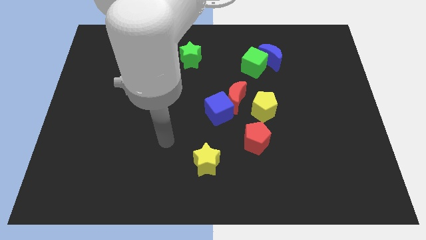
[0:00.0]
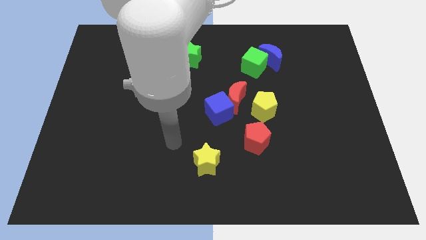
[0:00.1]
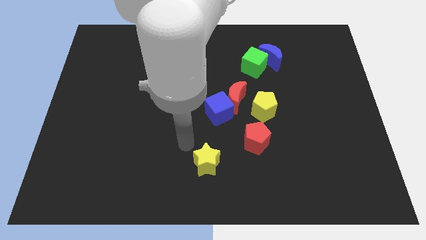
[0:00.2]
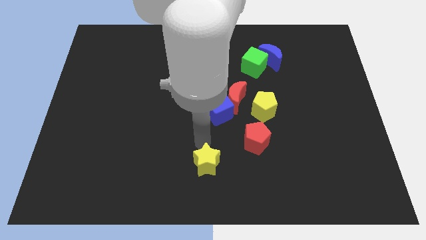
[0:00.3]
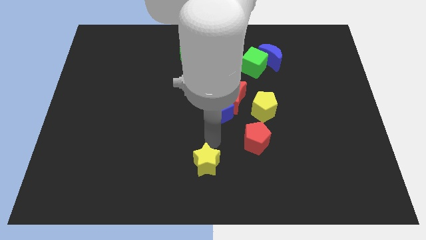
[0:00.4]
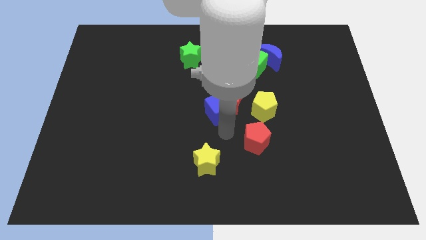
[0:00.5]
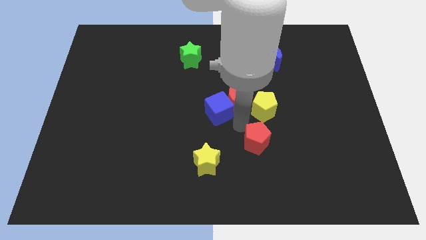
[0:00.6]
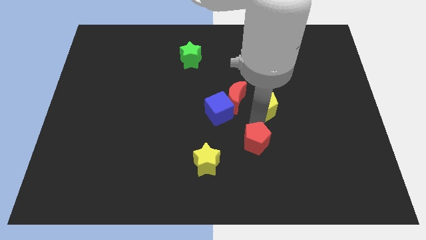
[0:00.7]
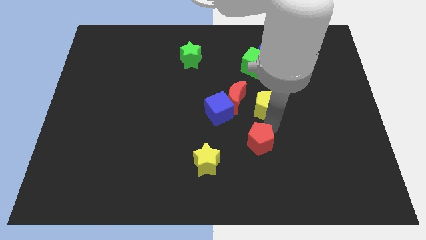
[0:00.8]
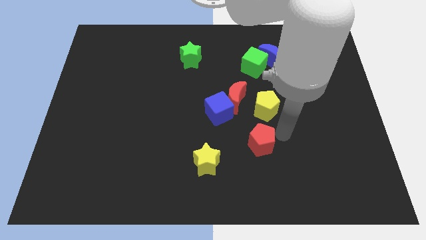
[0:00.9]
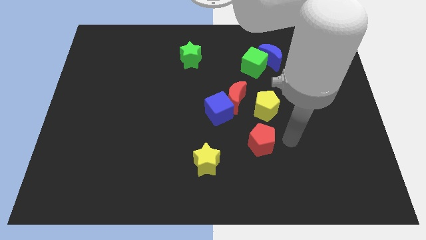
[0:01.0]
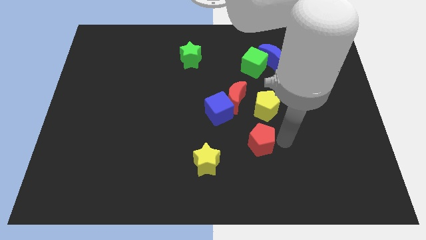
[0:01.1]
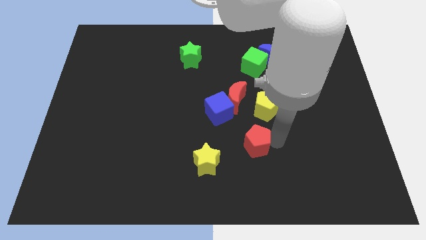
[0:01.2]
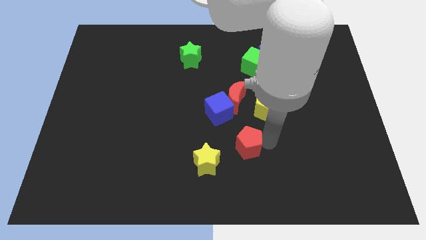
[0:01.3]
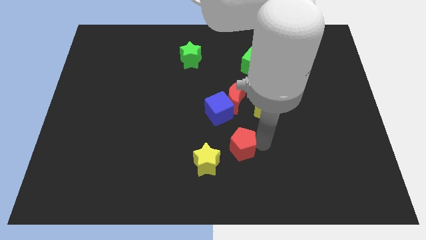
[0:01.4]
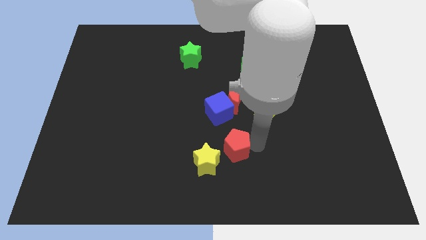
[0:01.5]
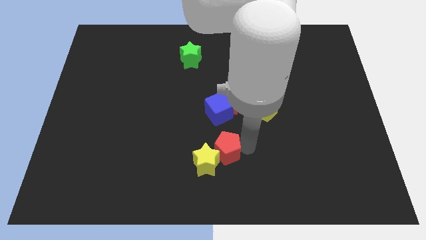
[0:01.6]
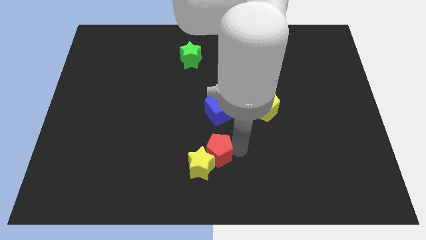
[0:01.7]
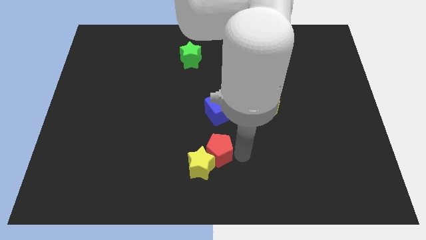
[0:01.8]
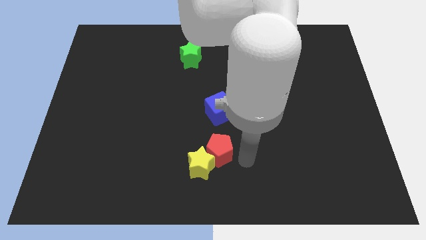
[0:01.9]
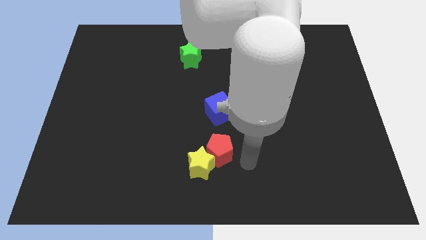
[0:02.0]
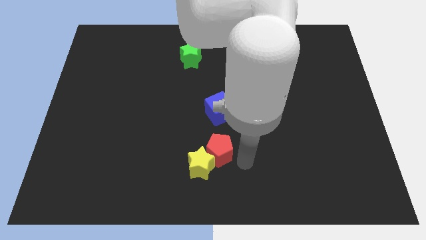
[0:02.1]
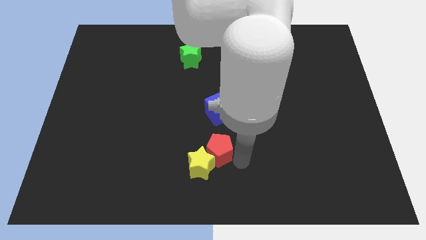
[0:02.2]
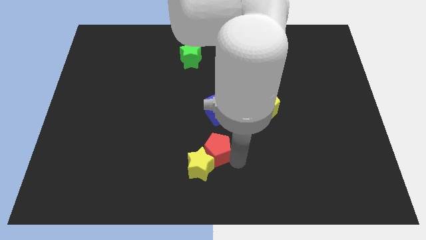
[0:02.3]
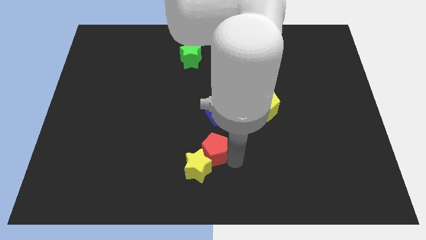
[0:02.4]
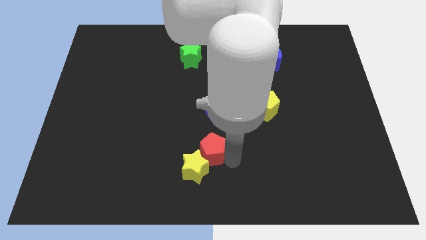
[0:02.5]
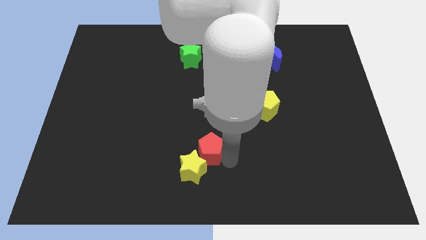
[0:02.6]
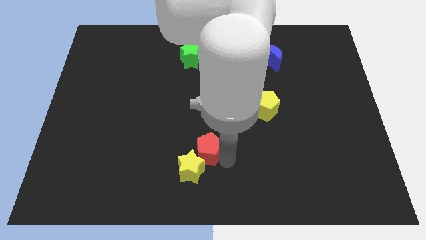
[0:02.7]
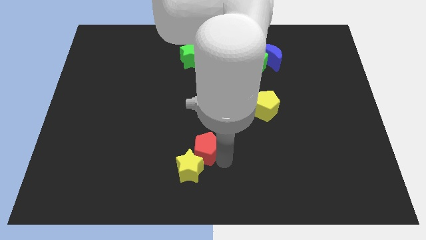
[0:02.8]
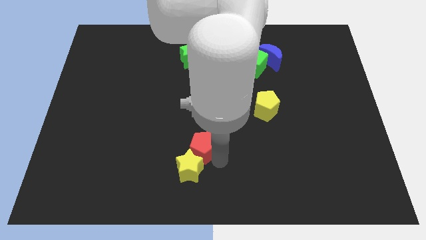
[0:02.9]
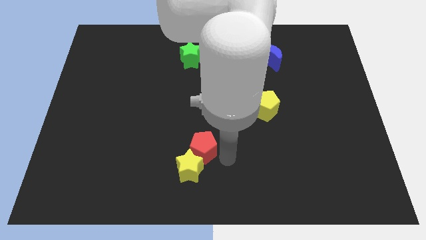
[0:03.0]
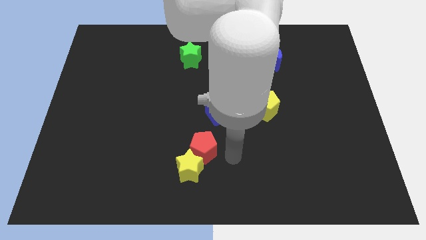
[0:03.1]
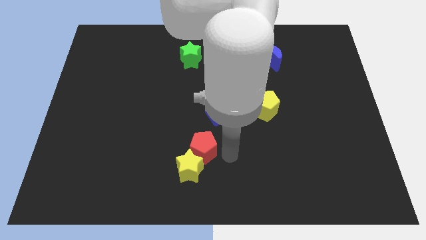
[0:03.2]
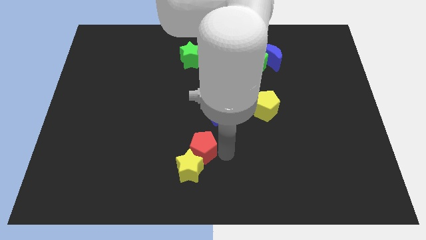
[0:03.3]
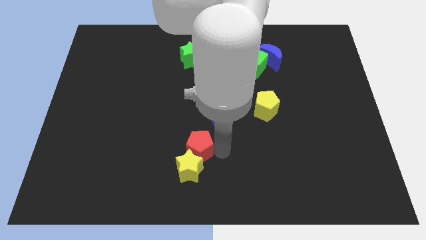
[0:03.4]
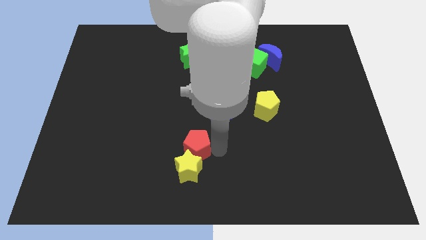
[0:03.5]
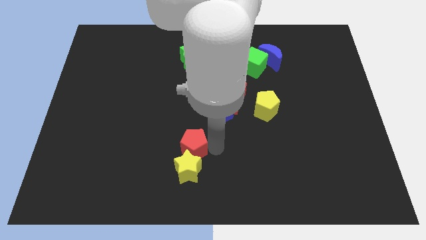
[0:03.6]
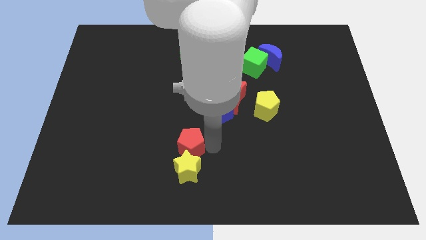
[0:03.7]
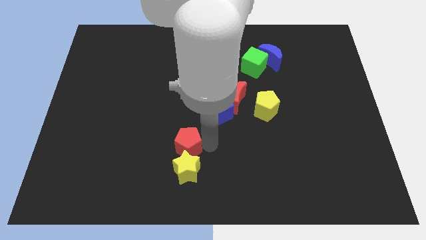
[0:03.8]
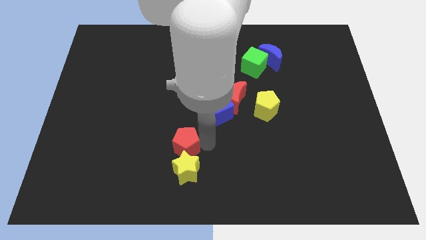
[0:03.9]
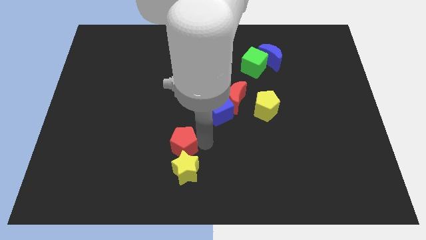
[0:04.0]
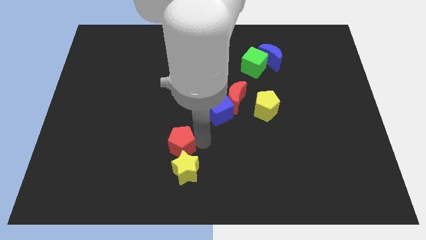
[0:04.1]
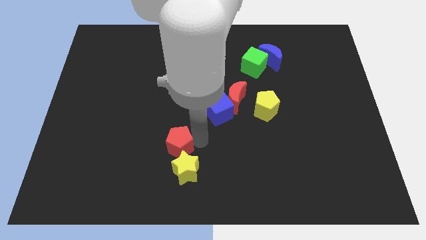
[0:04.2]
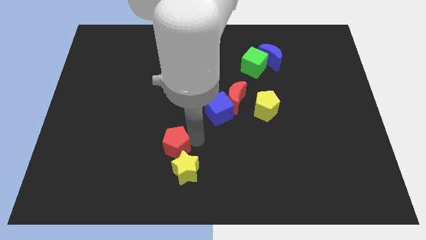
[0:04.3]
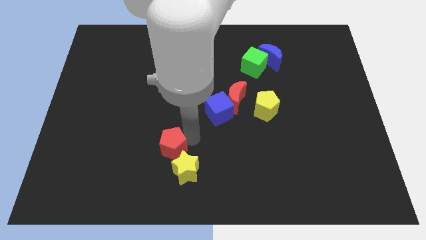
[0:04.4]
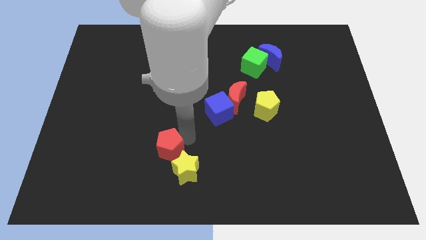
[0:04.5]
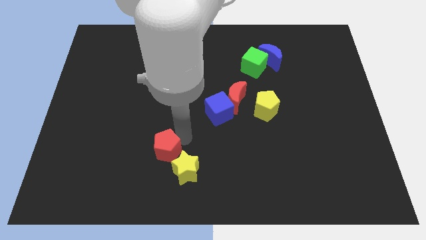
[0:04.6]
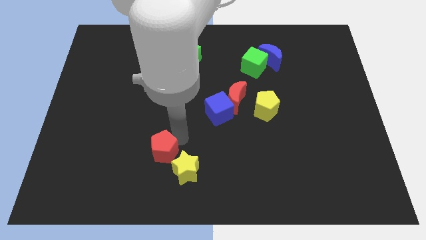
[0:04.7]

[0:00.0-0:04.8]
push the red pentagon left

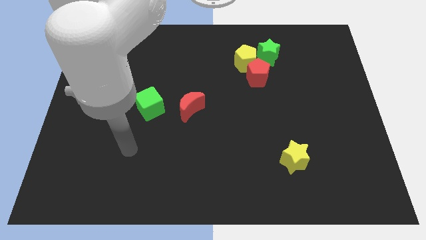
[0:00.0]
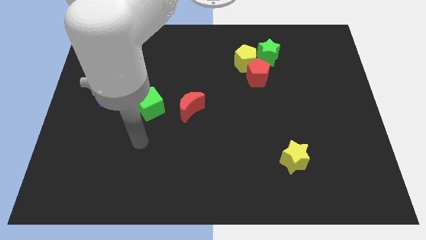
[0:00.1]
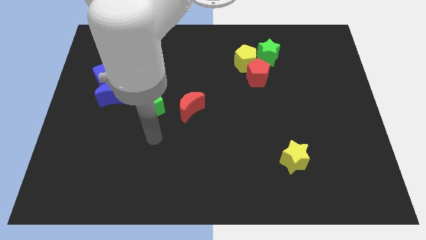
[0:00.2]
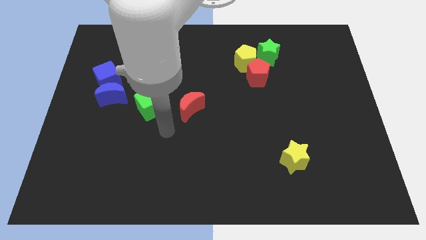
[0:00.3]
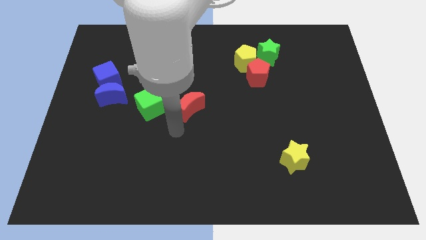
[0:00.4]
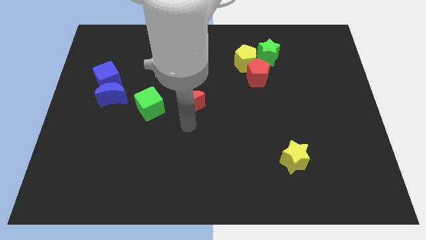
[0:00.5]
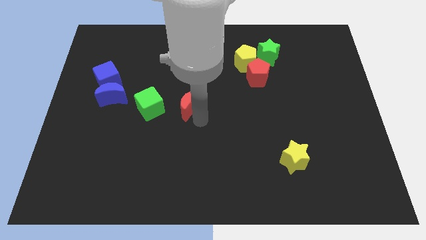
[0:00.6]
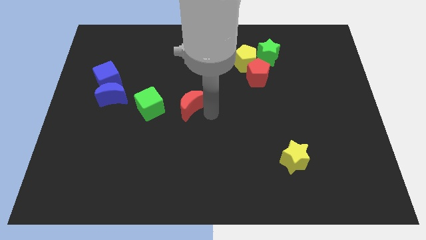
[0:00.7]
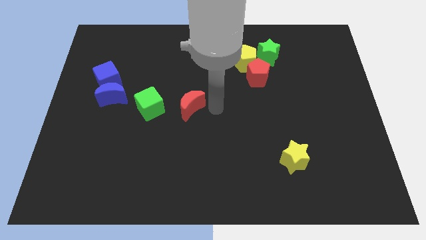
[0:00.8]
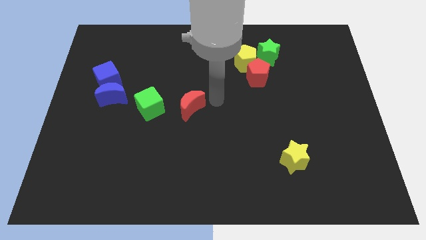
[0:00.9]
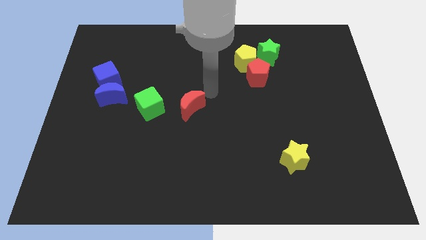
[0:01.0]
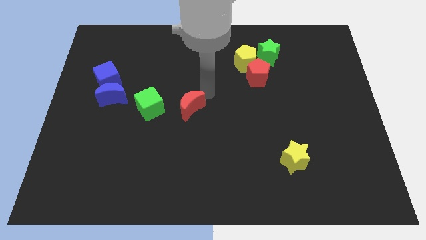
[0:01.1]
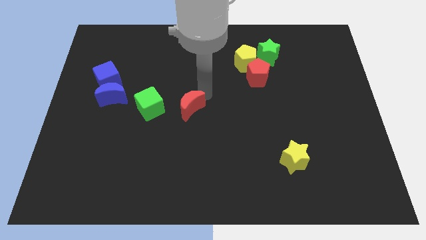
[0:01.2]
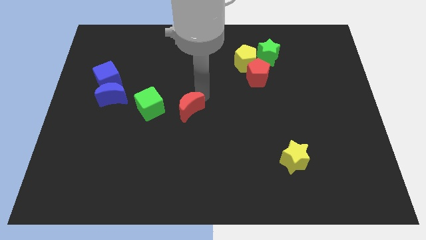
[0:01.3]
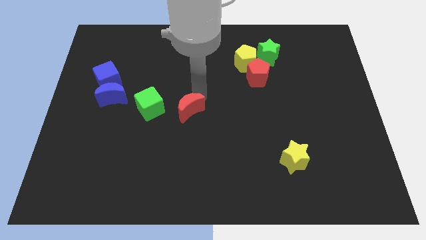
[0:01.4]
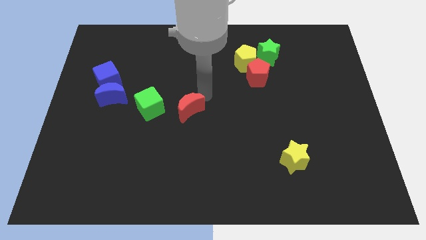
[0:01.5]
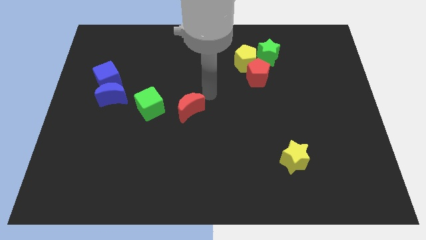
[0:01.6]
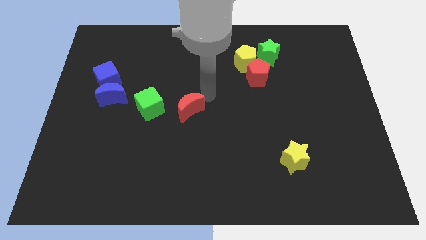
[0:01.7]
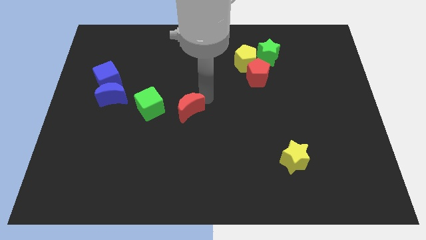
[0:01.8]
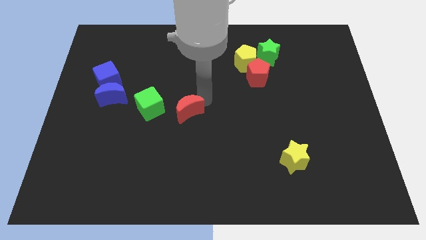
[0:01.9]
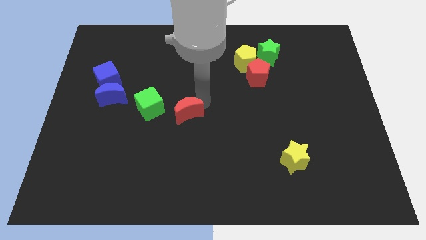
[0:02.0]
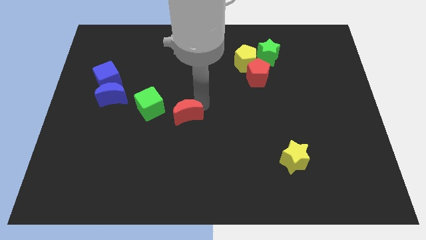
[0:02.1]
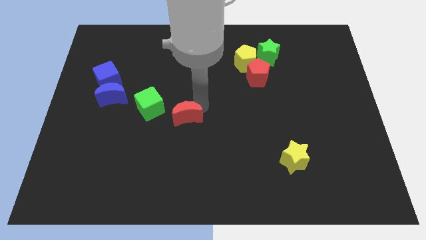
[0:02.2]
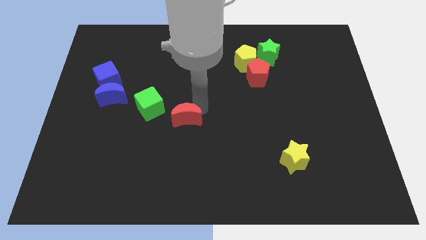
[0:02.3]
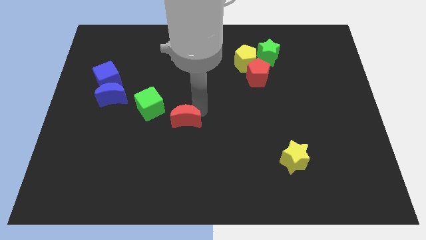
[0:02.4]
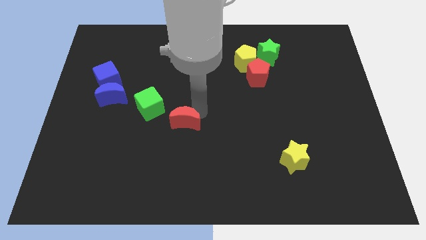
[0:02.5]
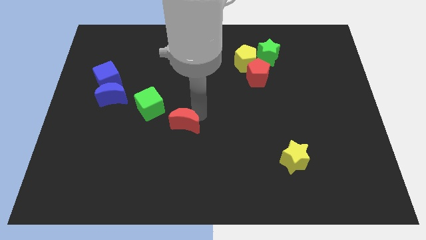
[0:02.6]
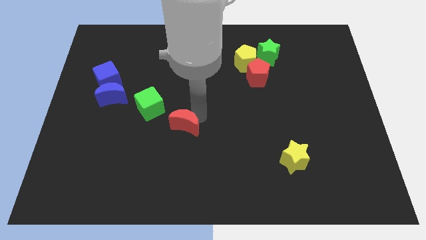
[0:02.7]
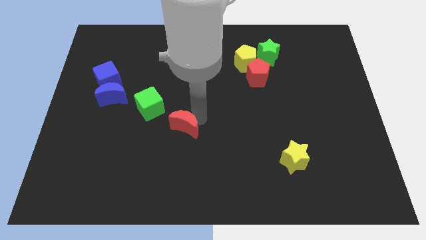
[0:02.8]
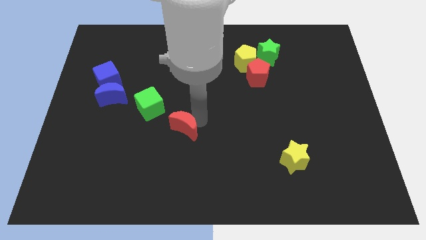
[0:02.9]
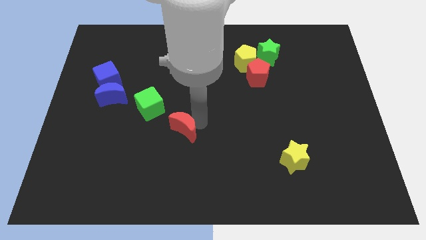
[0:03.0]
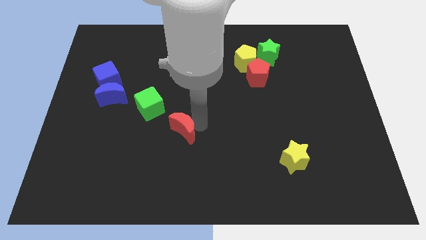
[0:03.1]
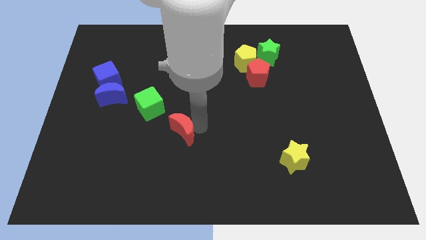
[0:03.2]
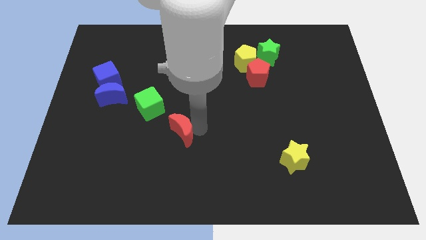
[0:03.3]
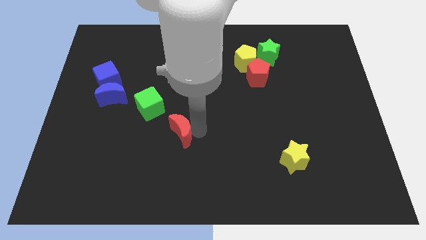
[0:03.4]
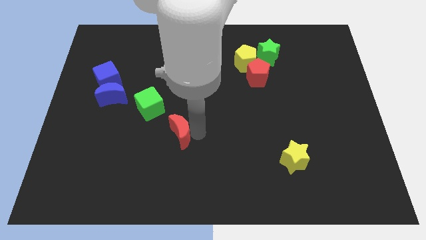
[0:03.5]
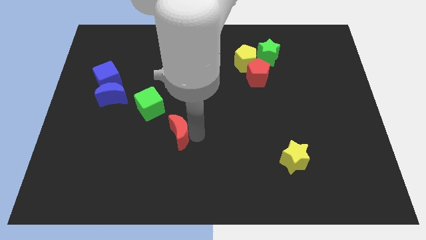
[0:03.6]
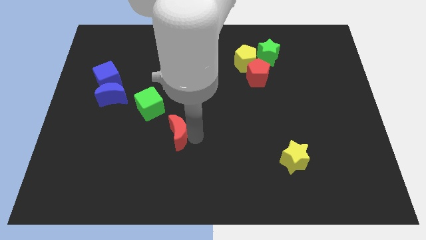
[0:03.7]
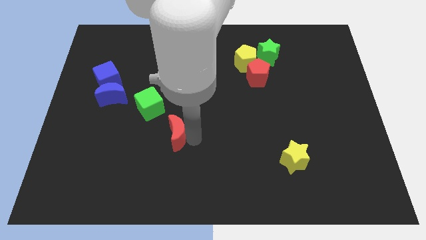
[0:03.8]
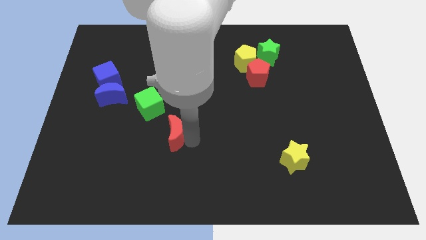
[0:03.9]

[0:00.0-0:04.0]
slightly move the red moon down and left diagonally
